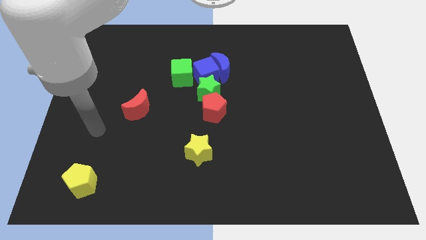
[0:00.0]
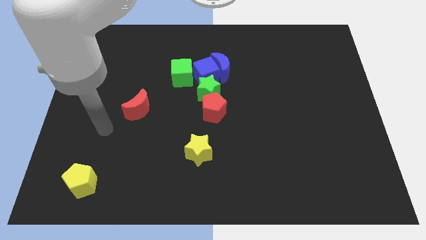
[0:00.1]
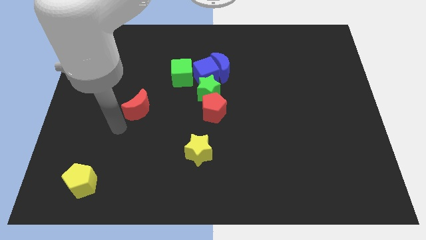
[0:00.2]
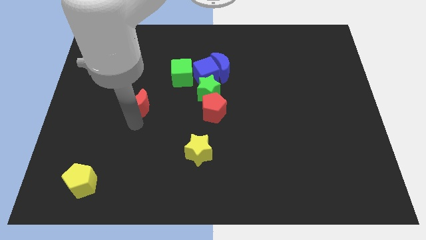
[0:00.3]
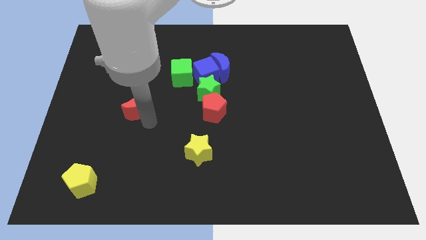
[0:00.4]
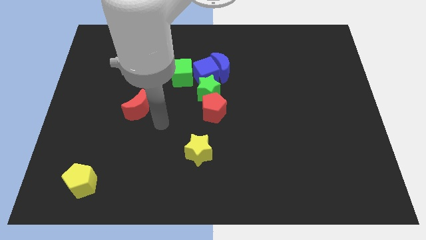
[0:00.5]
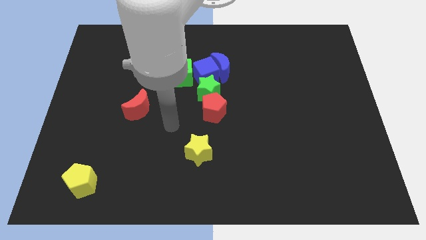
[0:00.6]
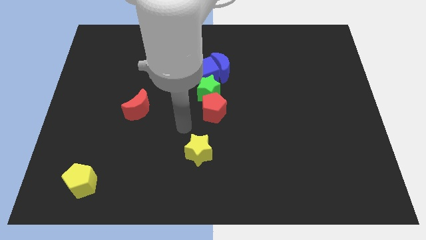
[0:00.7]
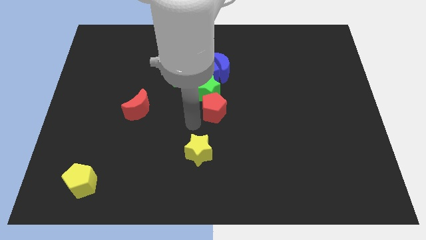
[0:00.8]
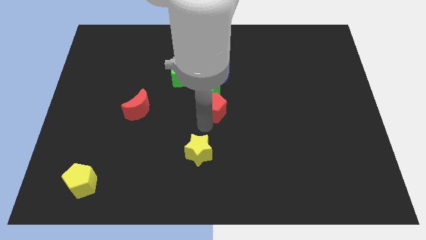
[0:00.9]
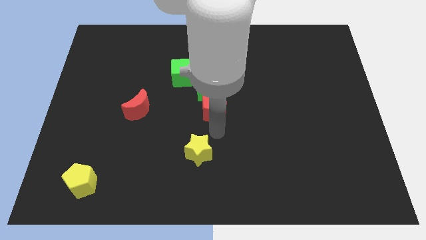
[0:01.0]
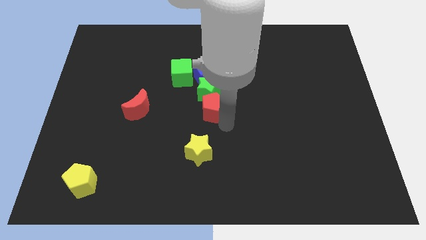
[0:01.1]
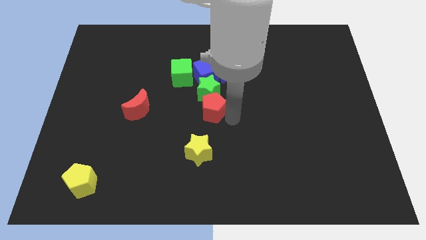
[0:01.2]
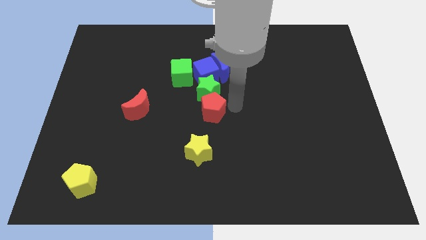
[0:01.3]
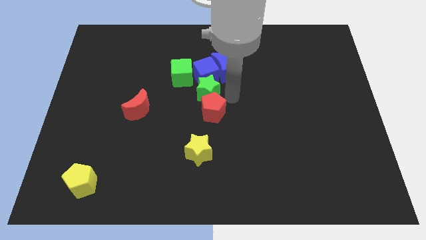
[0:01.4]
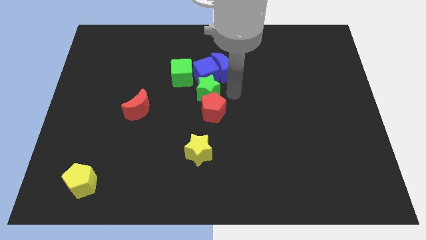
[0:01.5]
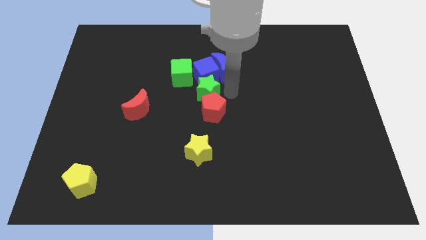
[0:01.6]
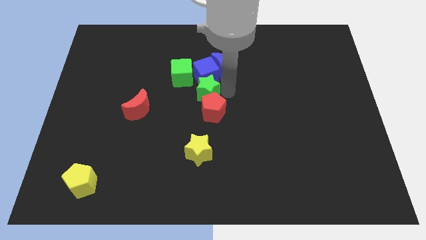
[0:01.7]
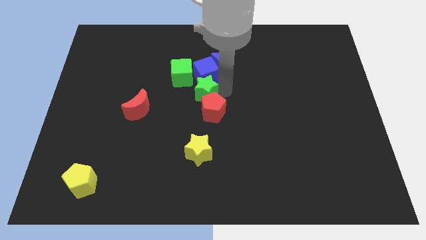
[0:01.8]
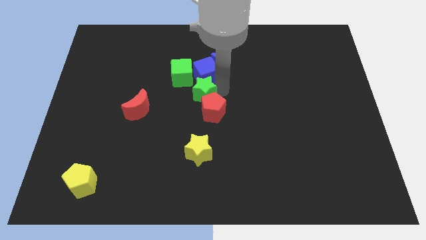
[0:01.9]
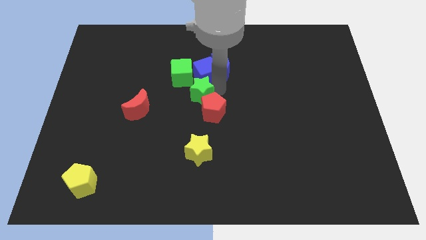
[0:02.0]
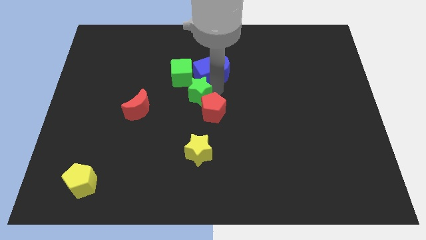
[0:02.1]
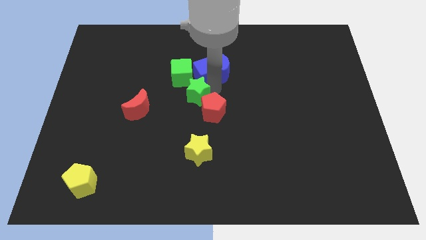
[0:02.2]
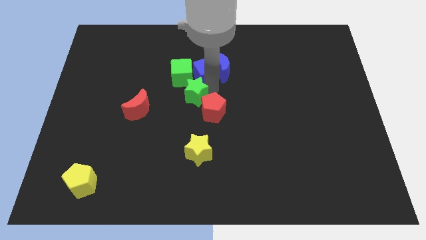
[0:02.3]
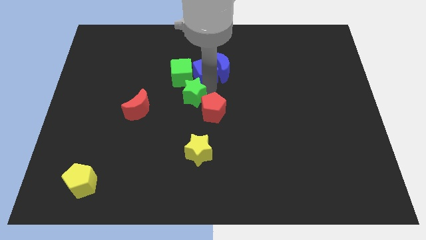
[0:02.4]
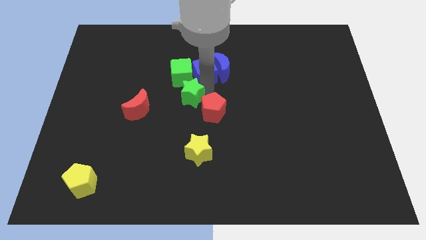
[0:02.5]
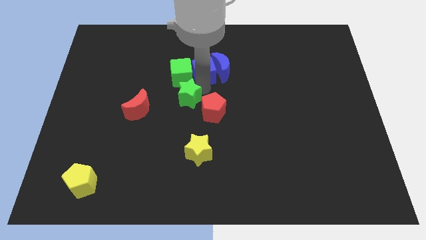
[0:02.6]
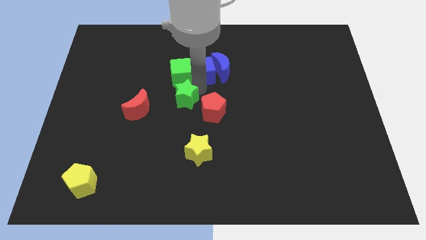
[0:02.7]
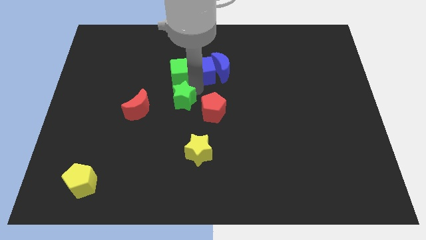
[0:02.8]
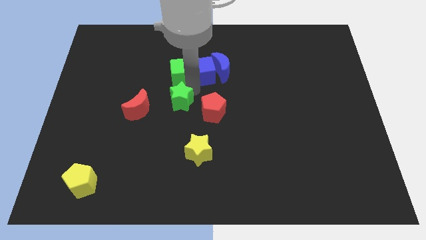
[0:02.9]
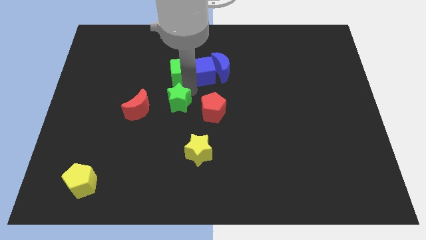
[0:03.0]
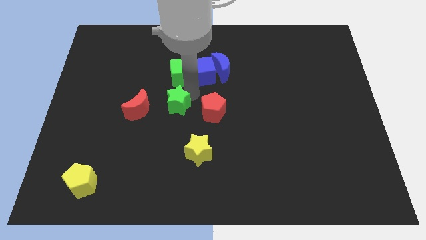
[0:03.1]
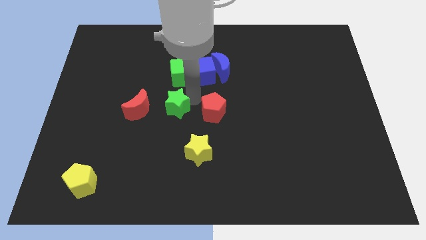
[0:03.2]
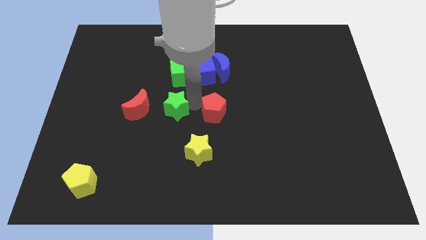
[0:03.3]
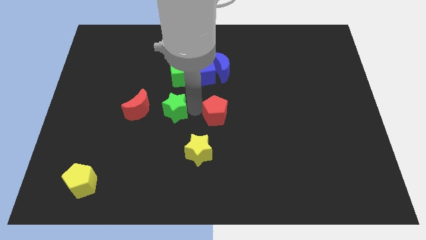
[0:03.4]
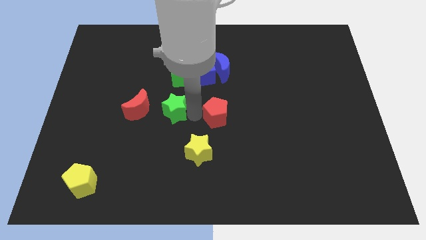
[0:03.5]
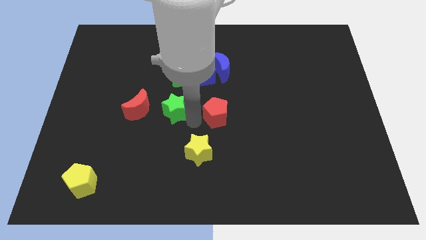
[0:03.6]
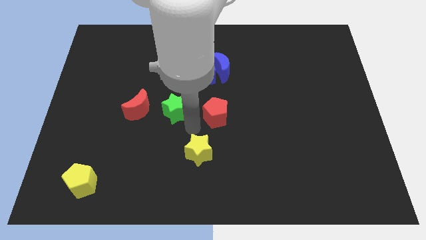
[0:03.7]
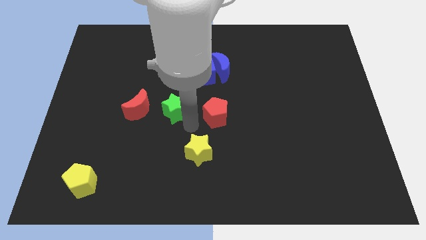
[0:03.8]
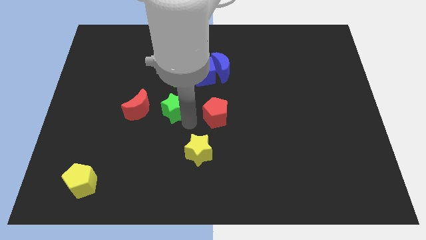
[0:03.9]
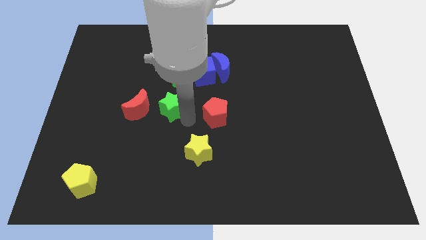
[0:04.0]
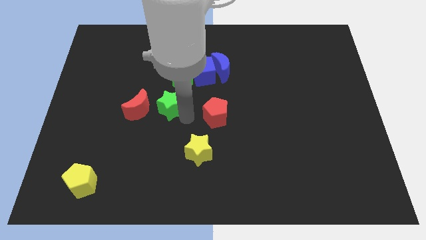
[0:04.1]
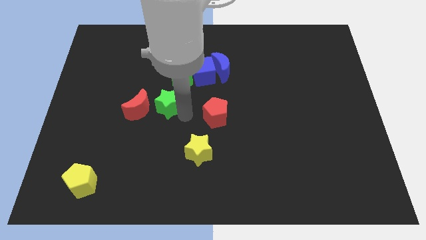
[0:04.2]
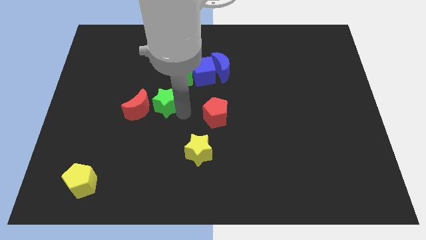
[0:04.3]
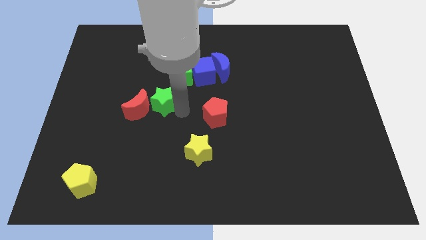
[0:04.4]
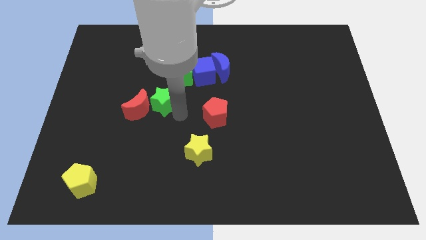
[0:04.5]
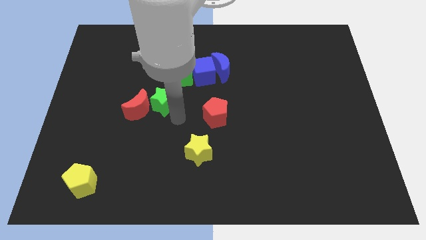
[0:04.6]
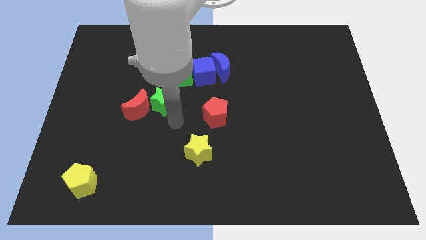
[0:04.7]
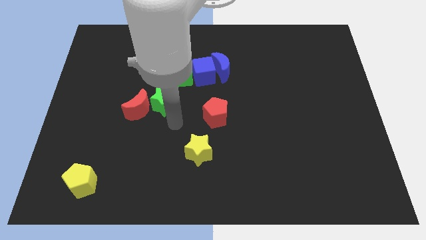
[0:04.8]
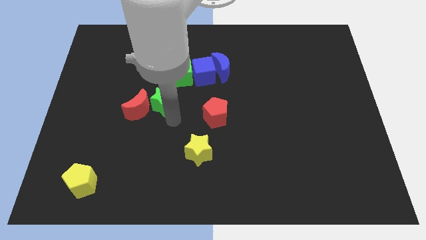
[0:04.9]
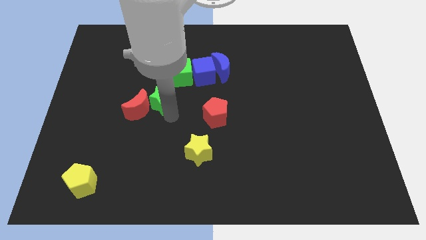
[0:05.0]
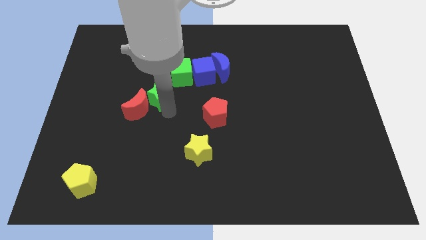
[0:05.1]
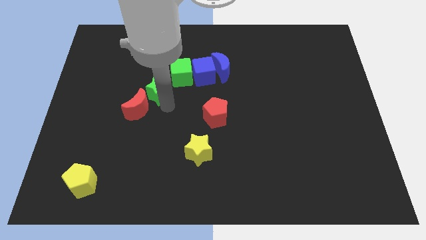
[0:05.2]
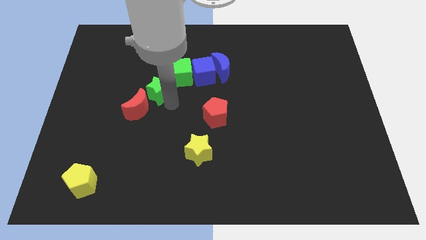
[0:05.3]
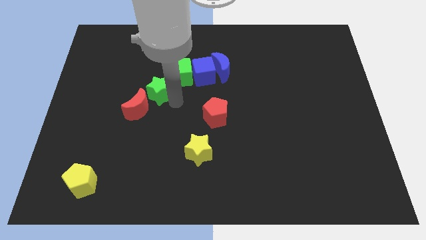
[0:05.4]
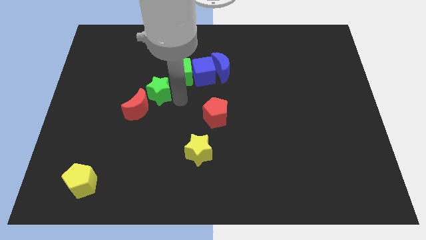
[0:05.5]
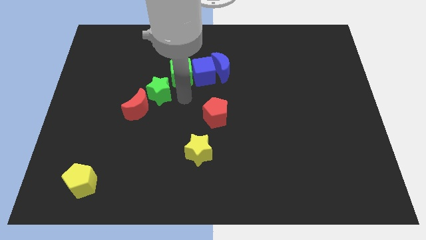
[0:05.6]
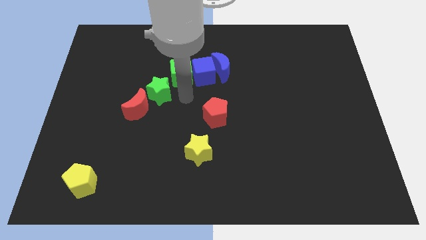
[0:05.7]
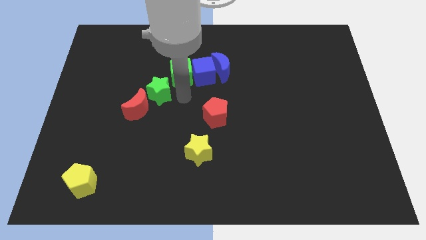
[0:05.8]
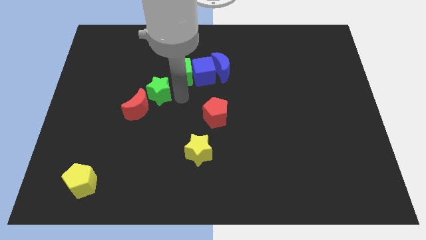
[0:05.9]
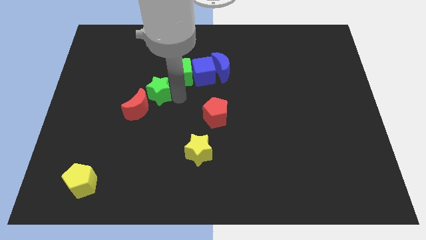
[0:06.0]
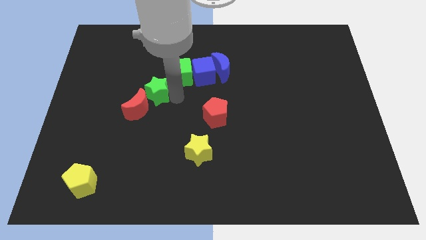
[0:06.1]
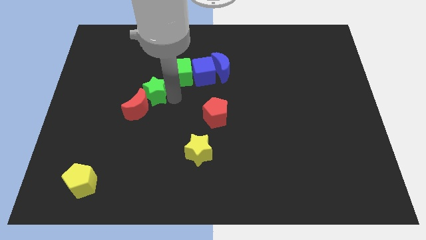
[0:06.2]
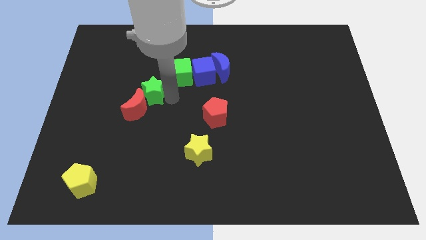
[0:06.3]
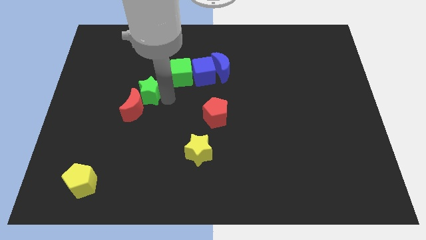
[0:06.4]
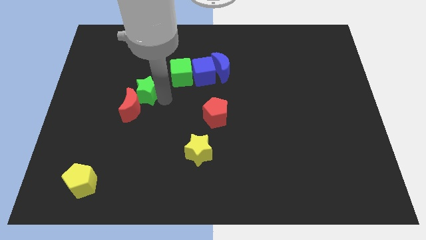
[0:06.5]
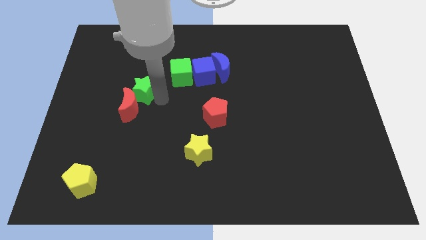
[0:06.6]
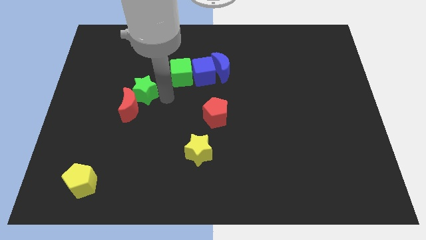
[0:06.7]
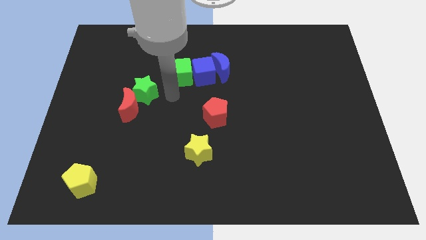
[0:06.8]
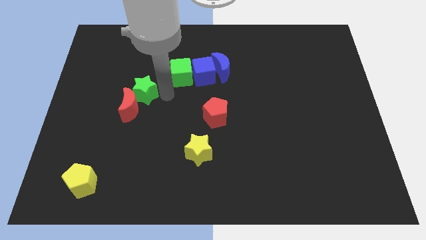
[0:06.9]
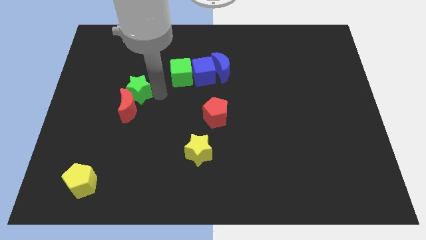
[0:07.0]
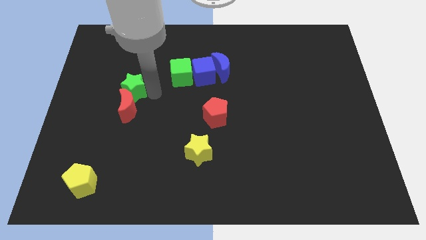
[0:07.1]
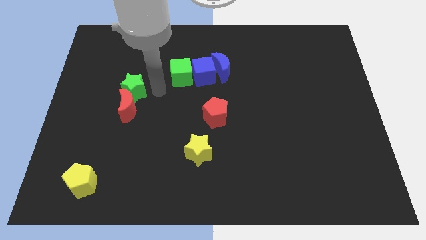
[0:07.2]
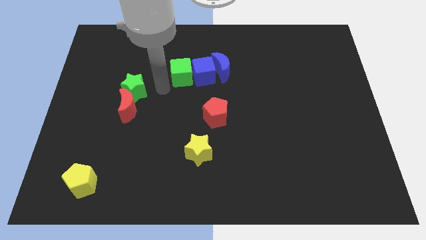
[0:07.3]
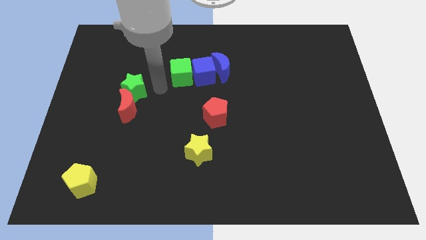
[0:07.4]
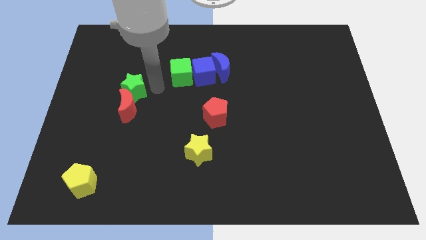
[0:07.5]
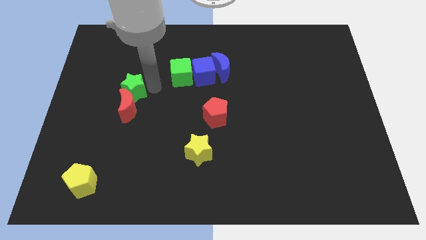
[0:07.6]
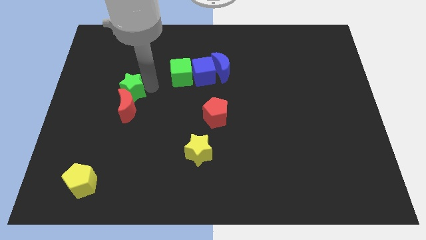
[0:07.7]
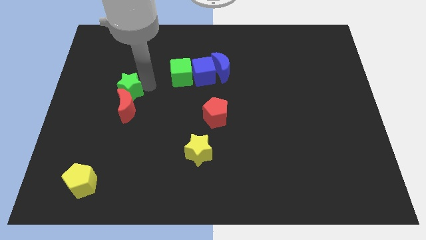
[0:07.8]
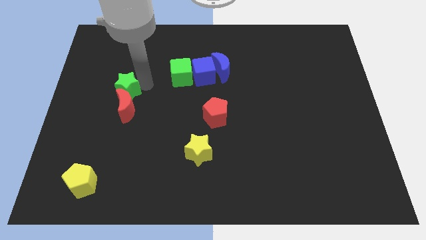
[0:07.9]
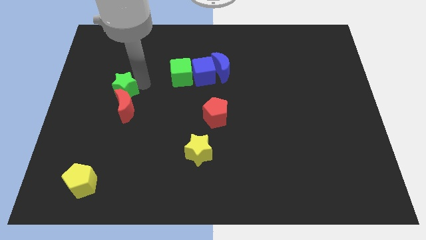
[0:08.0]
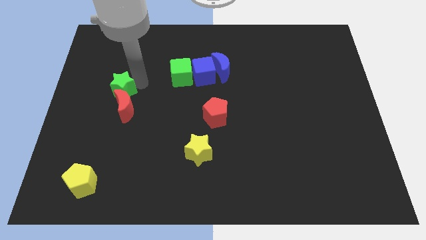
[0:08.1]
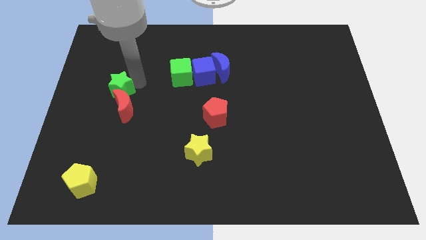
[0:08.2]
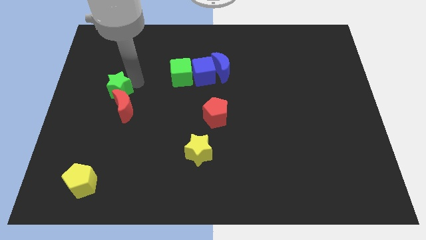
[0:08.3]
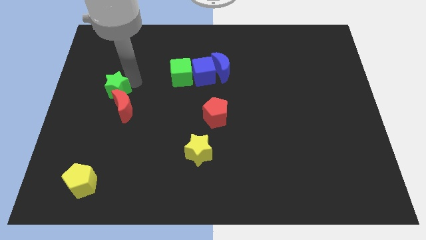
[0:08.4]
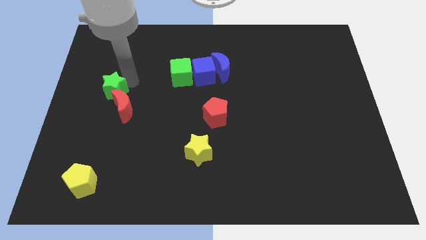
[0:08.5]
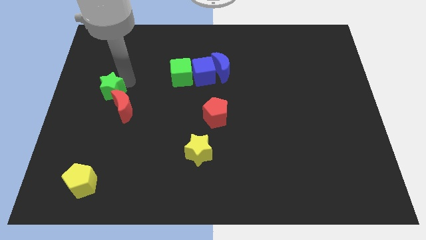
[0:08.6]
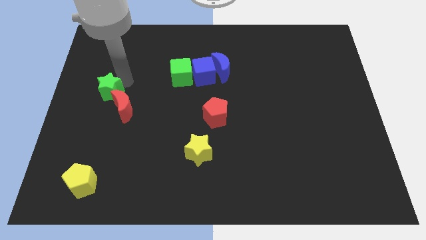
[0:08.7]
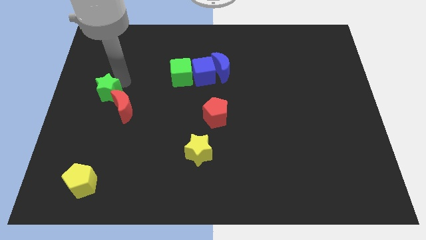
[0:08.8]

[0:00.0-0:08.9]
move the green star to the left side
